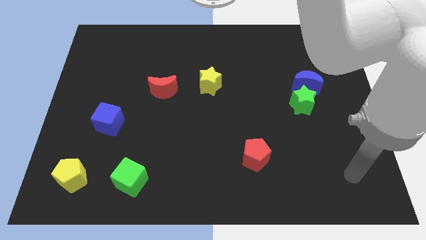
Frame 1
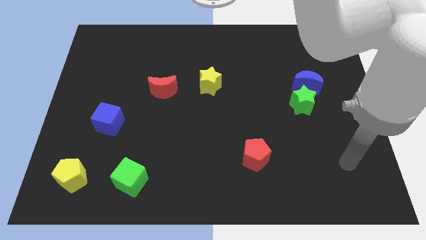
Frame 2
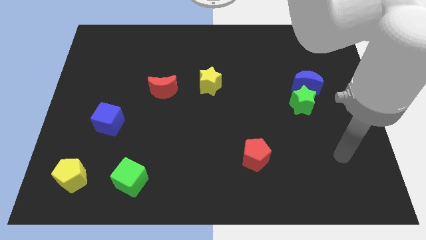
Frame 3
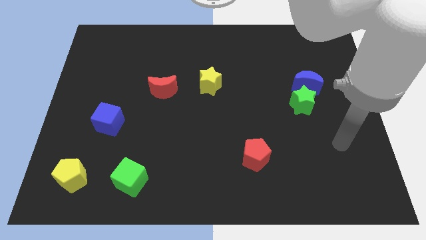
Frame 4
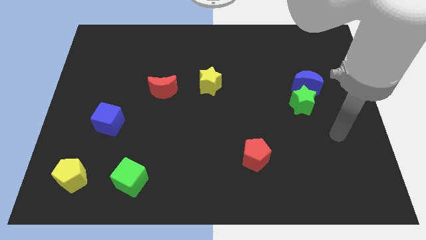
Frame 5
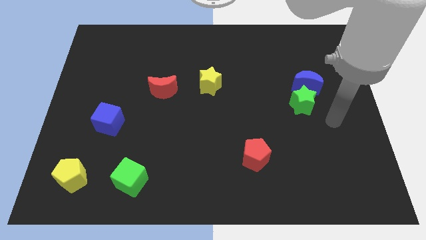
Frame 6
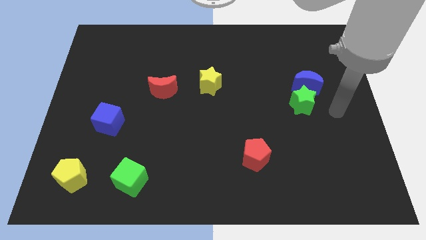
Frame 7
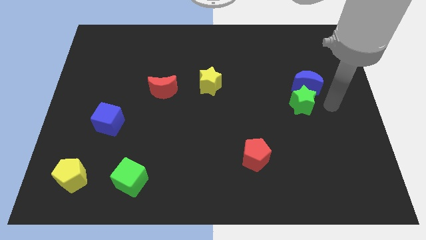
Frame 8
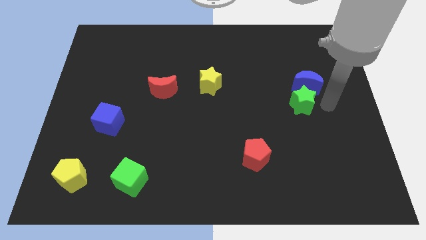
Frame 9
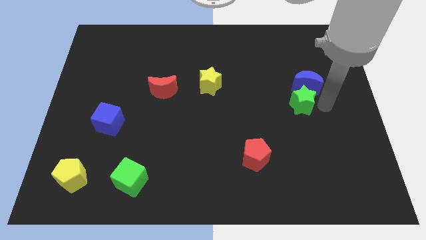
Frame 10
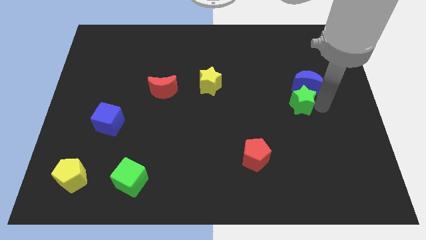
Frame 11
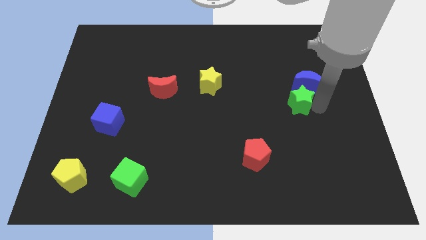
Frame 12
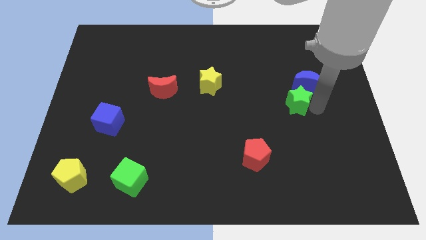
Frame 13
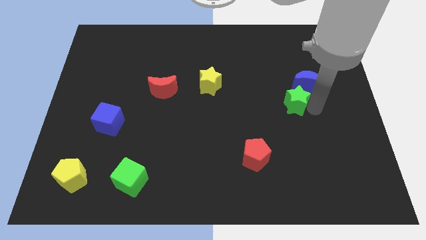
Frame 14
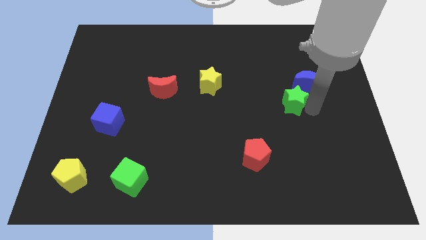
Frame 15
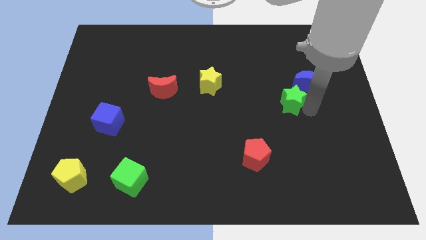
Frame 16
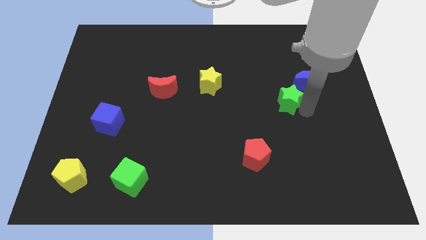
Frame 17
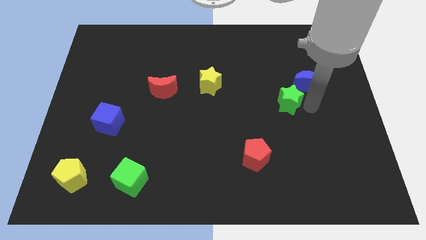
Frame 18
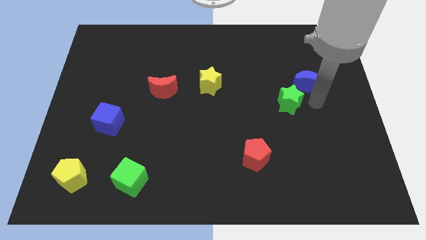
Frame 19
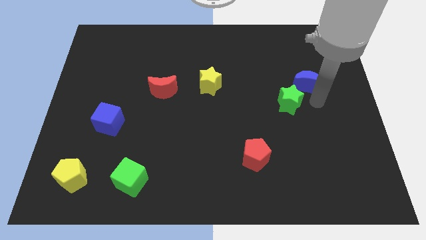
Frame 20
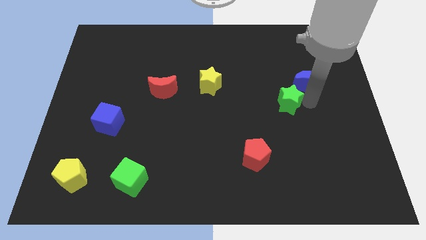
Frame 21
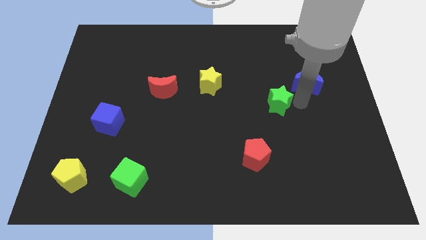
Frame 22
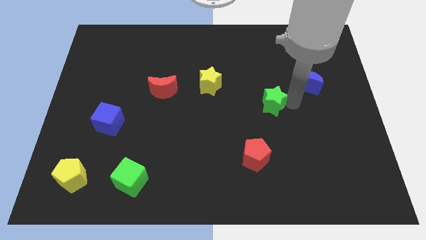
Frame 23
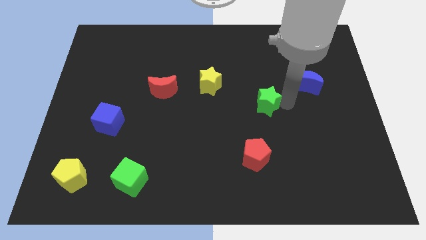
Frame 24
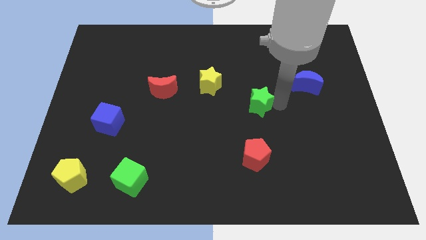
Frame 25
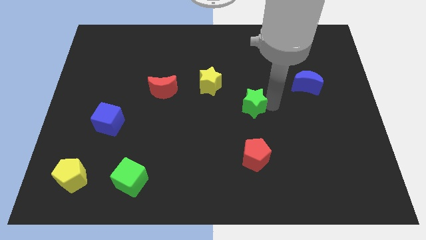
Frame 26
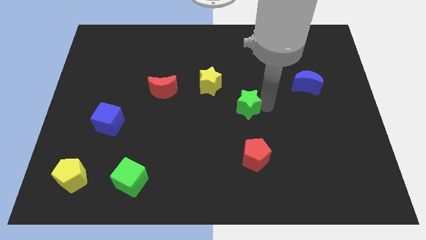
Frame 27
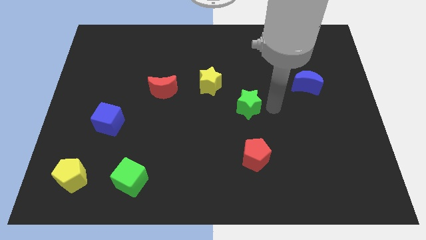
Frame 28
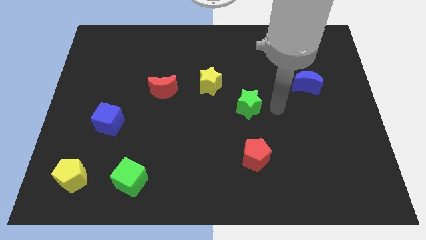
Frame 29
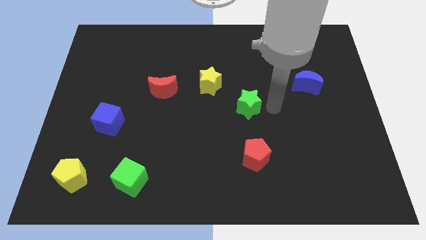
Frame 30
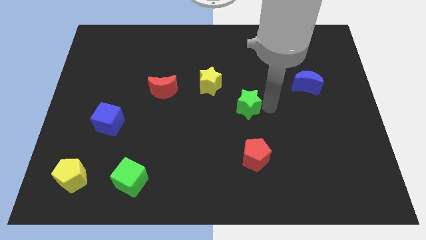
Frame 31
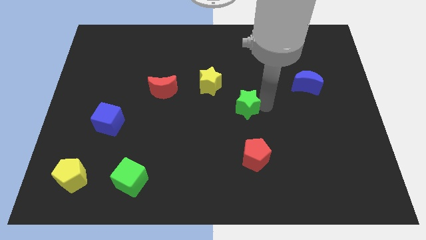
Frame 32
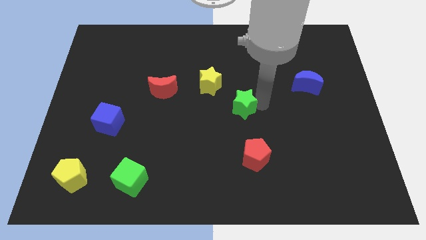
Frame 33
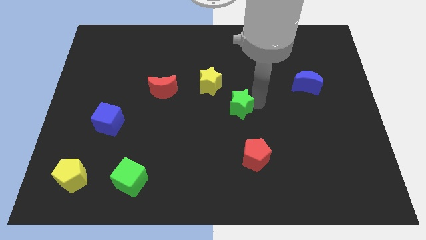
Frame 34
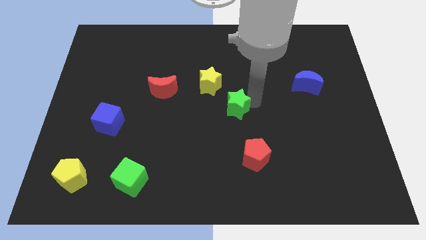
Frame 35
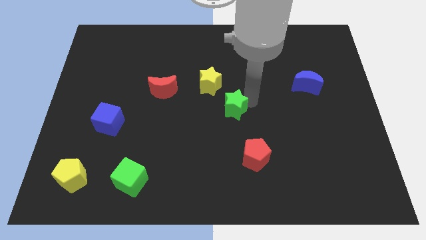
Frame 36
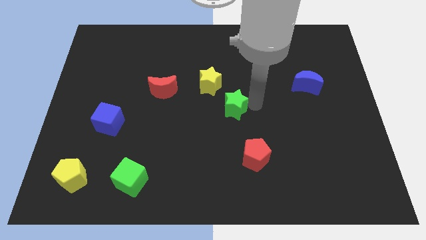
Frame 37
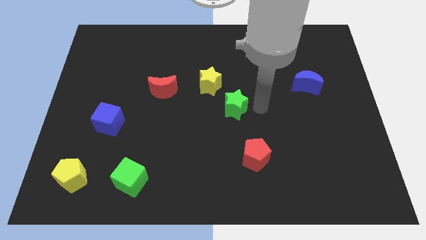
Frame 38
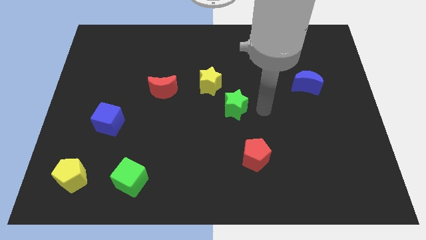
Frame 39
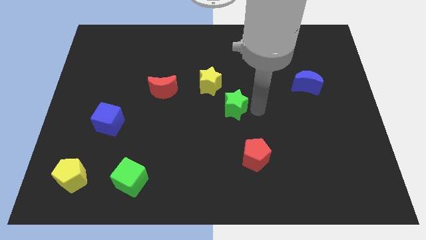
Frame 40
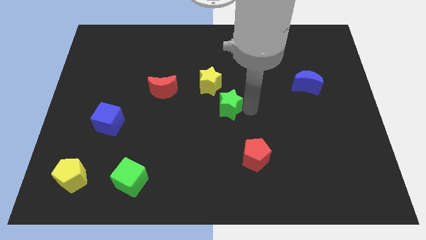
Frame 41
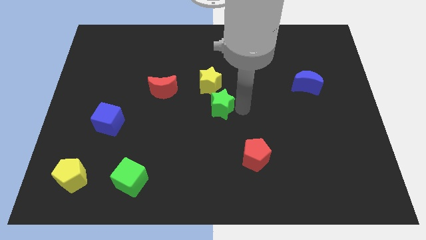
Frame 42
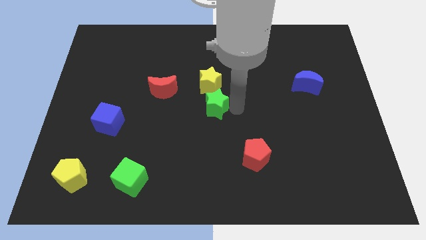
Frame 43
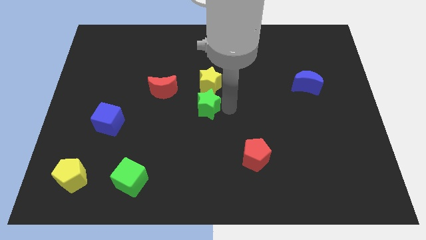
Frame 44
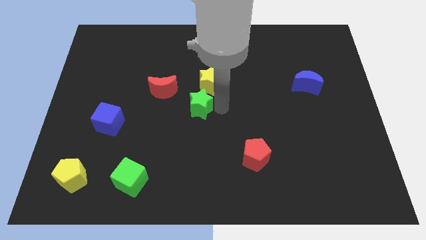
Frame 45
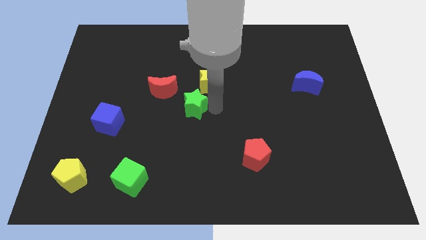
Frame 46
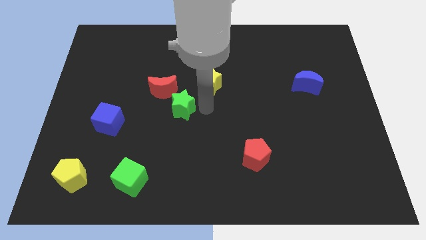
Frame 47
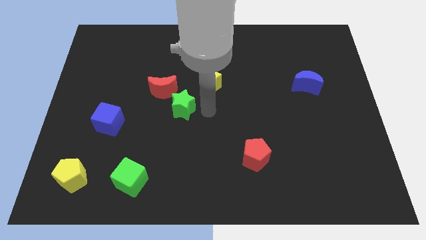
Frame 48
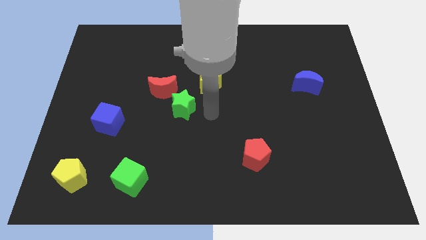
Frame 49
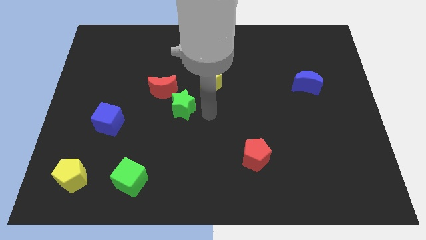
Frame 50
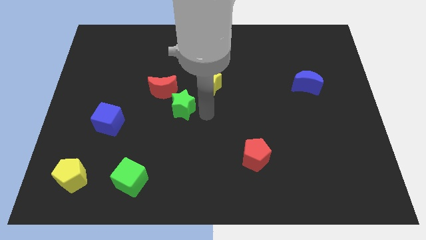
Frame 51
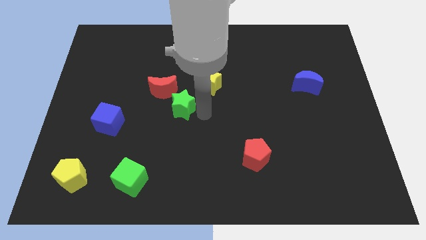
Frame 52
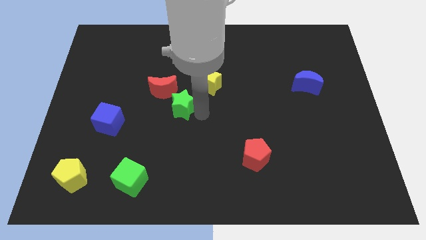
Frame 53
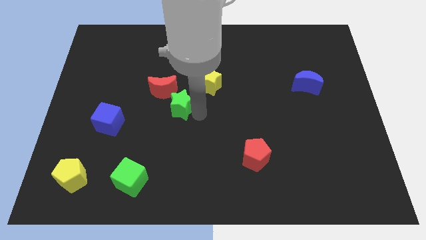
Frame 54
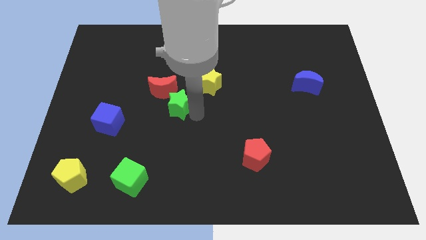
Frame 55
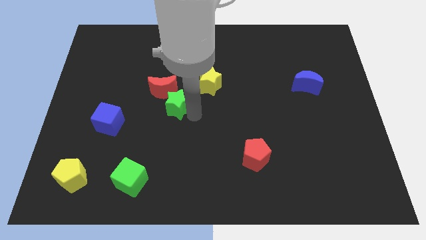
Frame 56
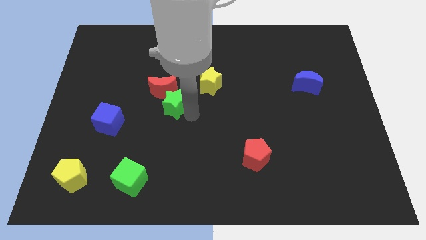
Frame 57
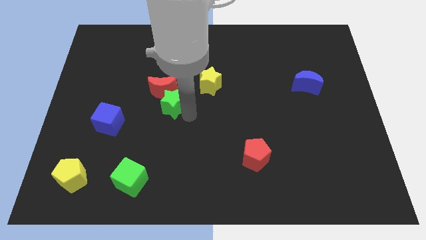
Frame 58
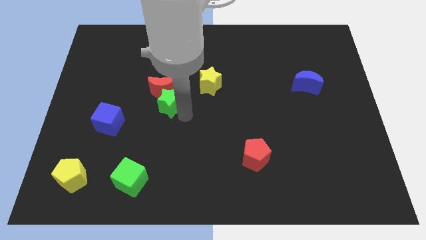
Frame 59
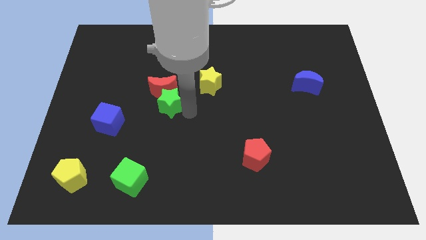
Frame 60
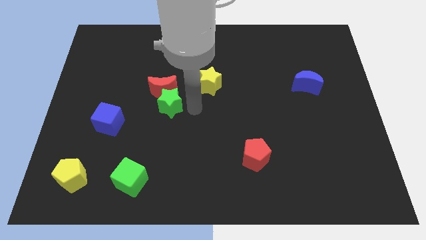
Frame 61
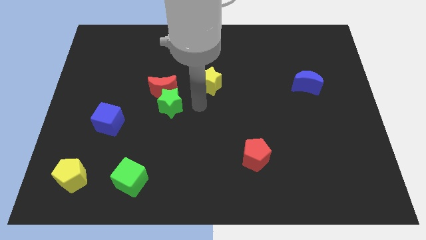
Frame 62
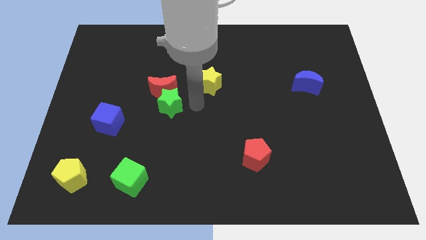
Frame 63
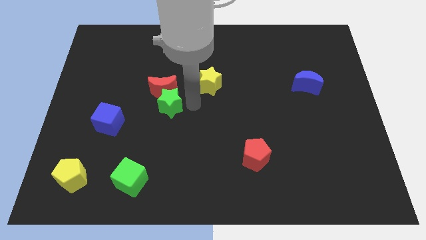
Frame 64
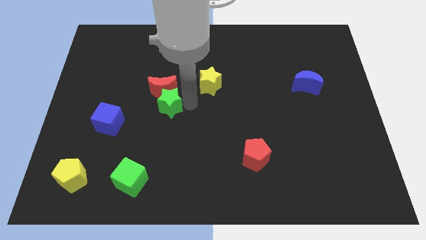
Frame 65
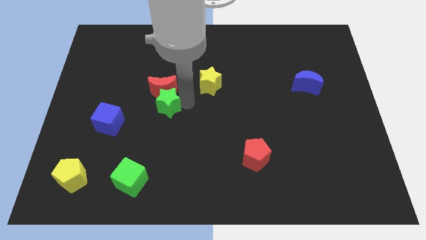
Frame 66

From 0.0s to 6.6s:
push the green star to the bottom left of the red moon
